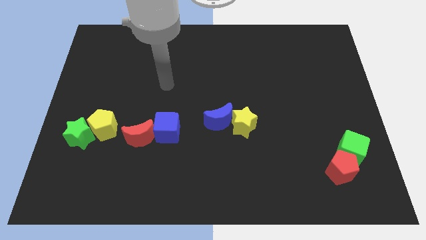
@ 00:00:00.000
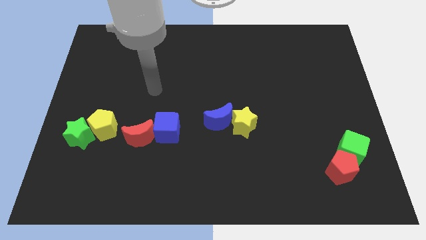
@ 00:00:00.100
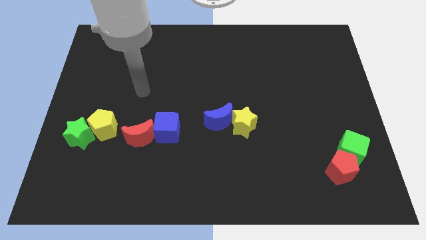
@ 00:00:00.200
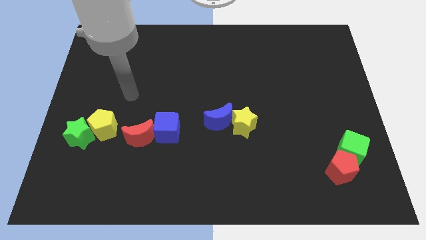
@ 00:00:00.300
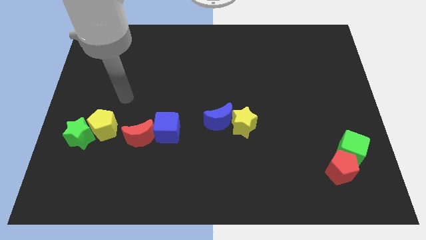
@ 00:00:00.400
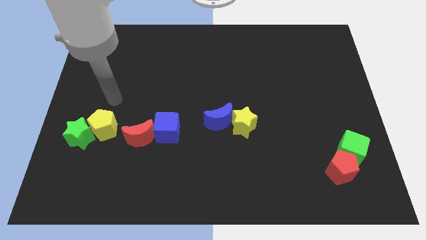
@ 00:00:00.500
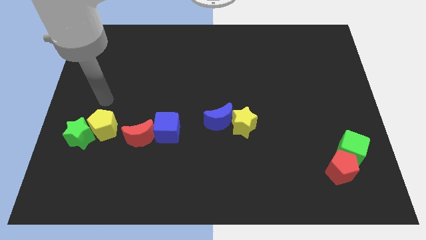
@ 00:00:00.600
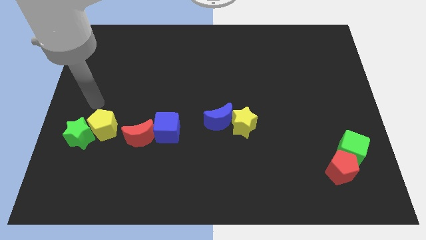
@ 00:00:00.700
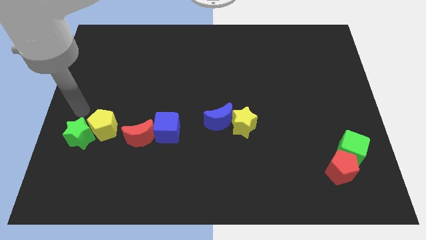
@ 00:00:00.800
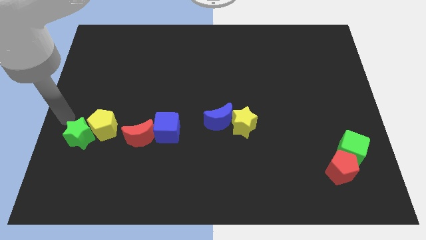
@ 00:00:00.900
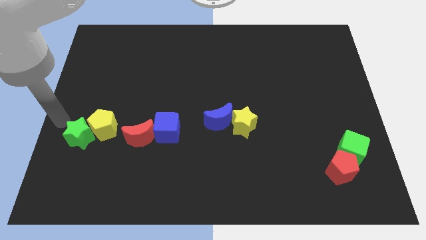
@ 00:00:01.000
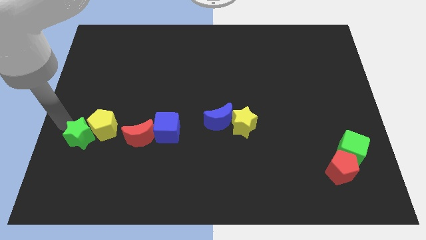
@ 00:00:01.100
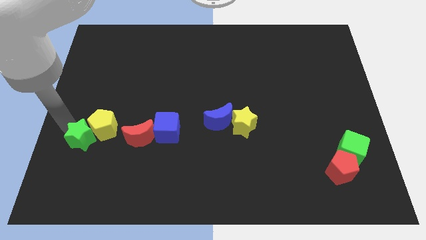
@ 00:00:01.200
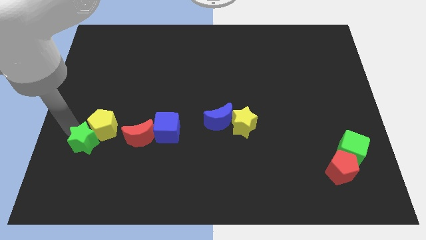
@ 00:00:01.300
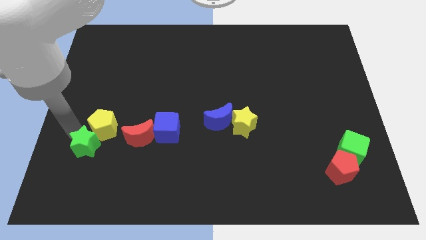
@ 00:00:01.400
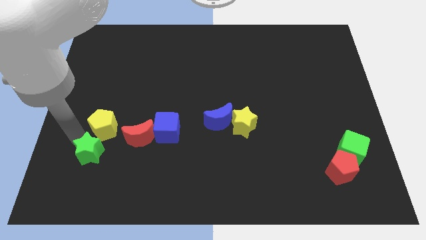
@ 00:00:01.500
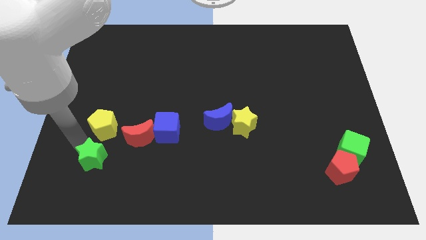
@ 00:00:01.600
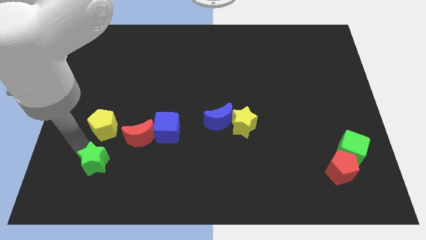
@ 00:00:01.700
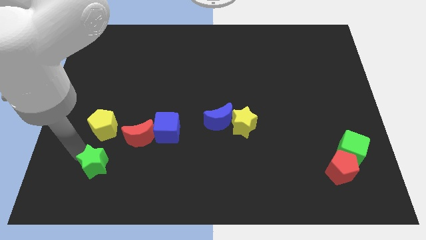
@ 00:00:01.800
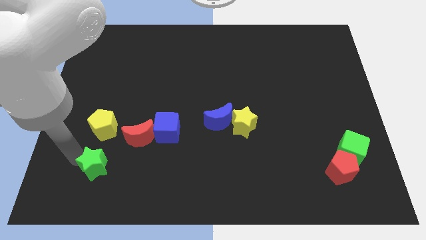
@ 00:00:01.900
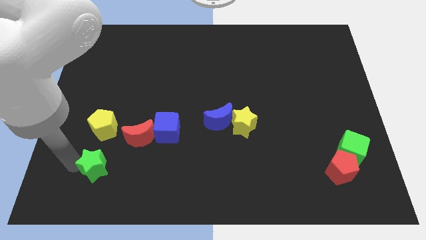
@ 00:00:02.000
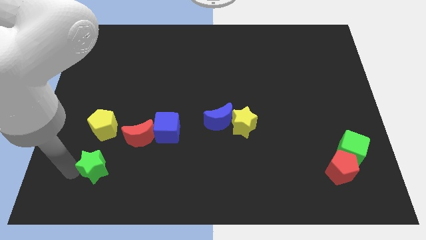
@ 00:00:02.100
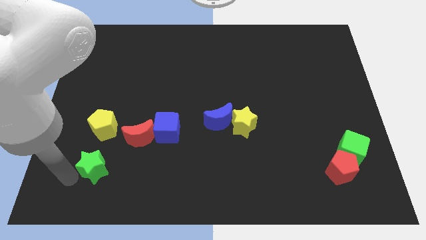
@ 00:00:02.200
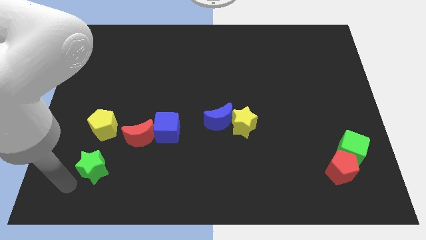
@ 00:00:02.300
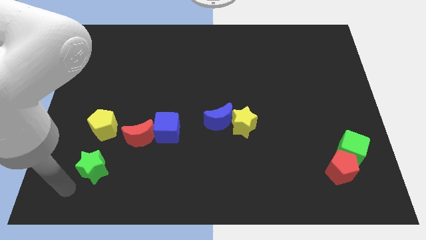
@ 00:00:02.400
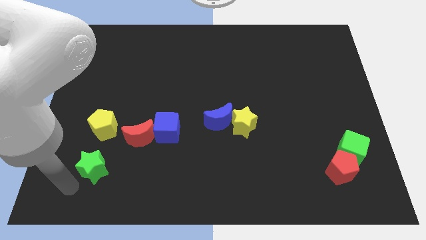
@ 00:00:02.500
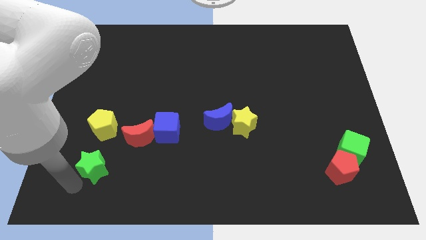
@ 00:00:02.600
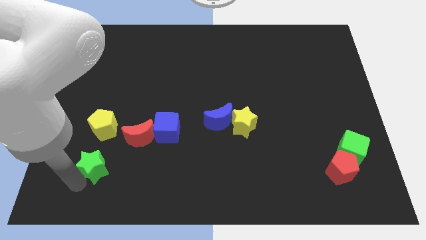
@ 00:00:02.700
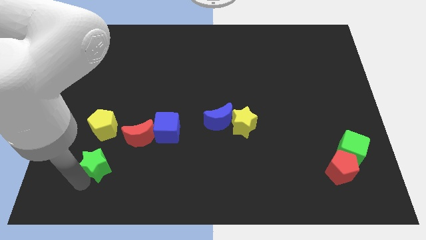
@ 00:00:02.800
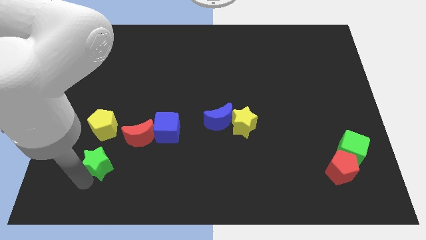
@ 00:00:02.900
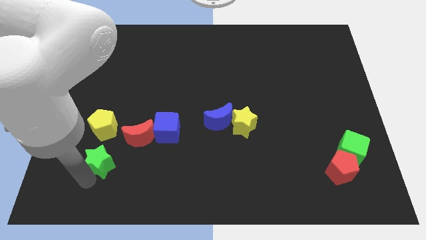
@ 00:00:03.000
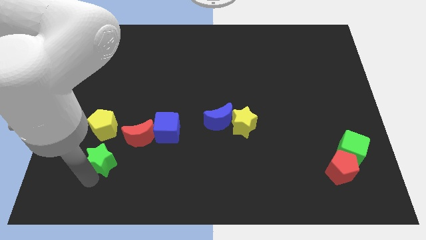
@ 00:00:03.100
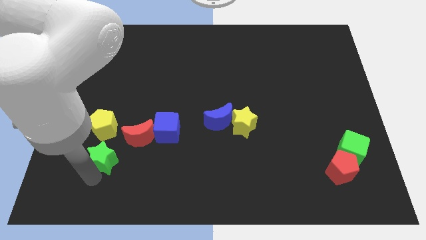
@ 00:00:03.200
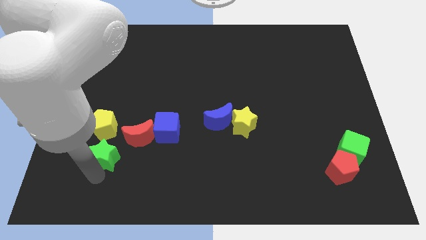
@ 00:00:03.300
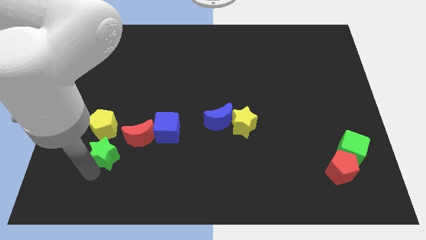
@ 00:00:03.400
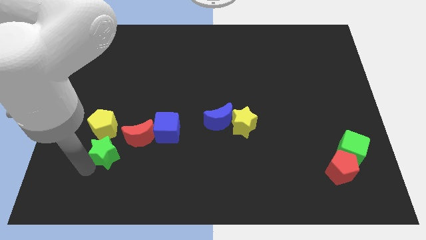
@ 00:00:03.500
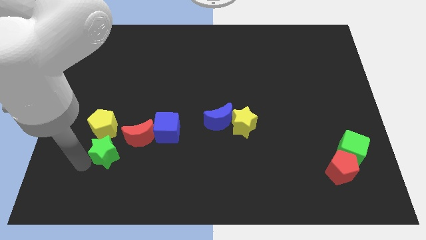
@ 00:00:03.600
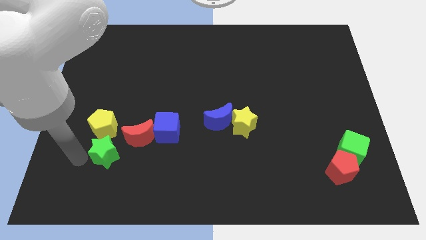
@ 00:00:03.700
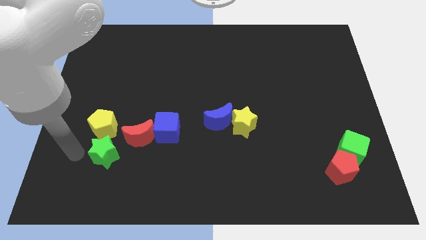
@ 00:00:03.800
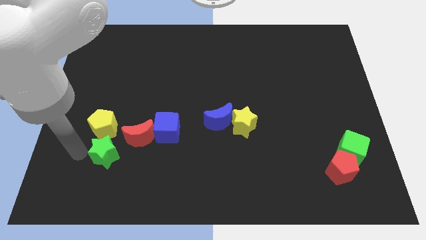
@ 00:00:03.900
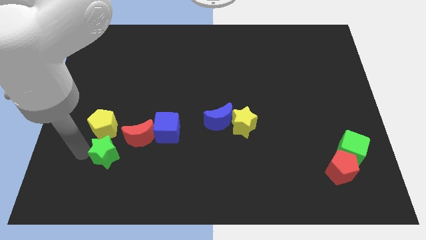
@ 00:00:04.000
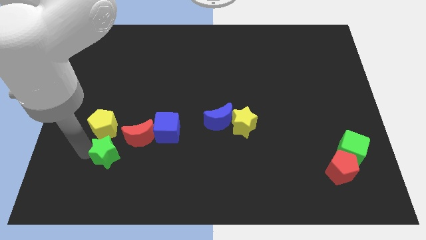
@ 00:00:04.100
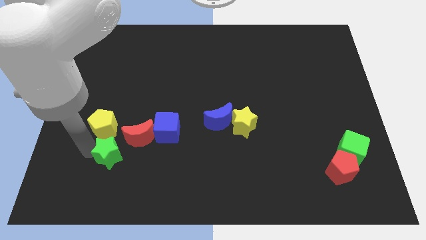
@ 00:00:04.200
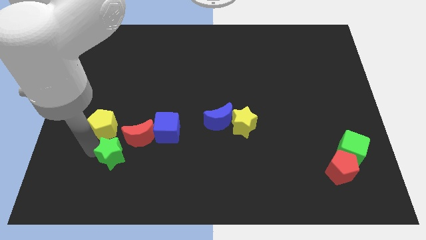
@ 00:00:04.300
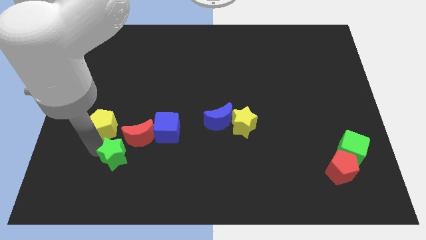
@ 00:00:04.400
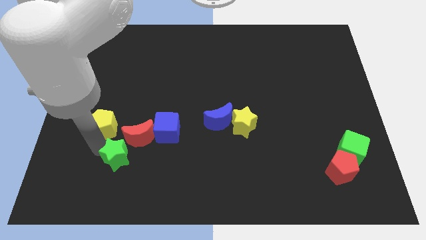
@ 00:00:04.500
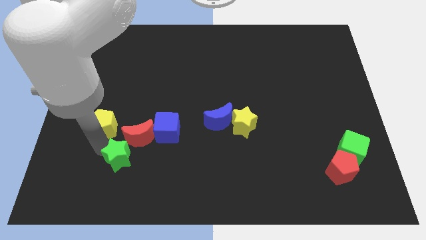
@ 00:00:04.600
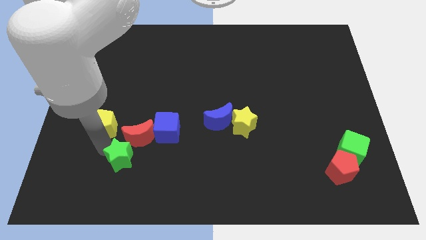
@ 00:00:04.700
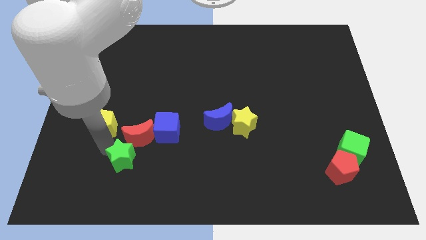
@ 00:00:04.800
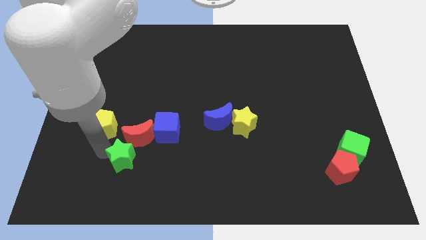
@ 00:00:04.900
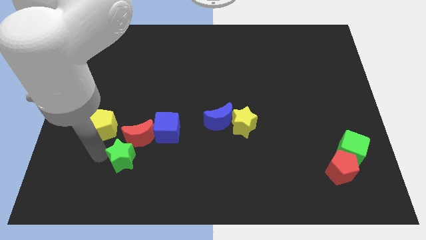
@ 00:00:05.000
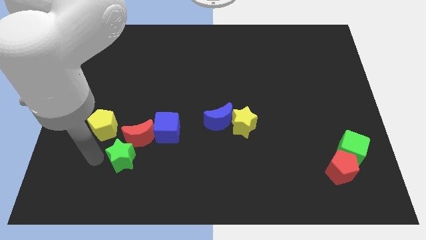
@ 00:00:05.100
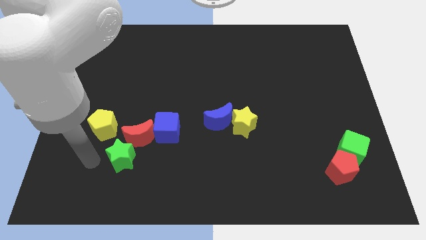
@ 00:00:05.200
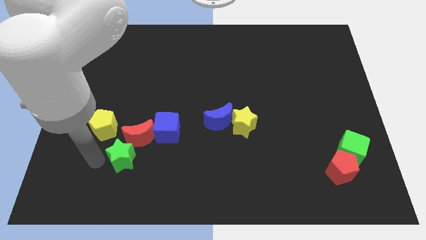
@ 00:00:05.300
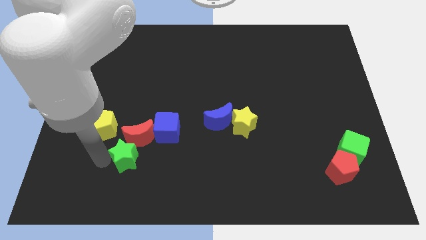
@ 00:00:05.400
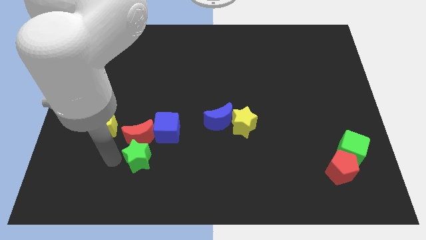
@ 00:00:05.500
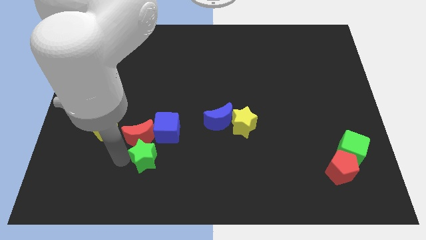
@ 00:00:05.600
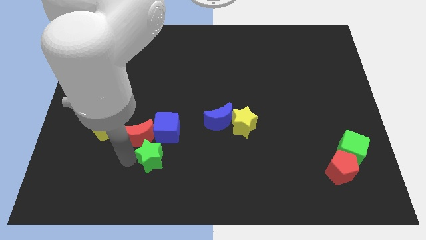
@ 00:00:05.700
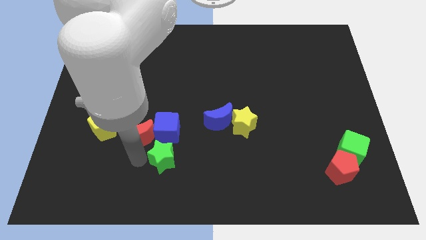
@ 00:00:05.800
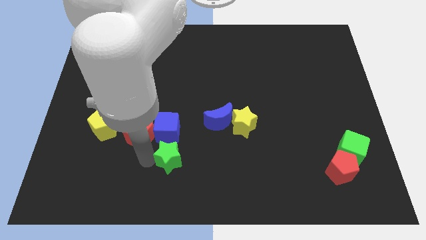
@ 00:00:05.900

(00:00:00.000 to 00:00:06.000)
slide the green star diagonally down and to the right of the blue cube
